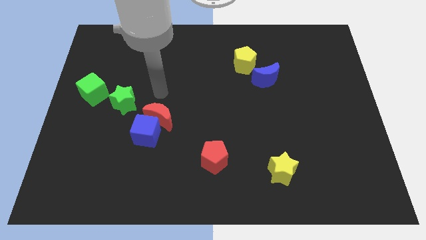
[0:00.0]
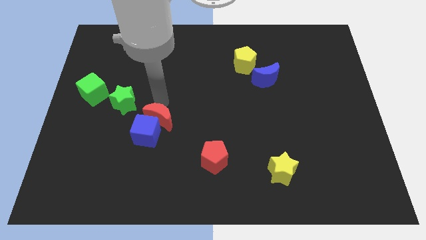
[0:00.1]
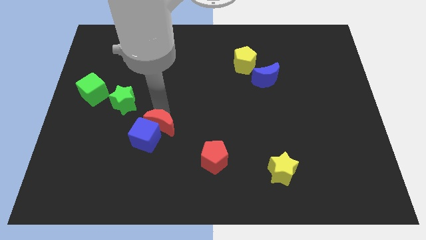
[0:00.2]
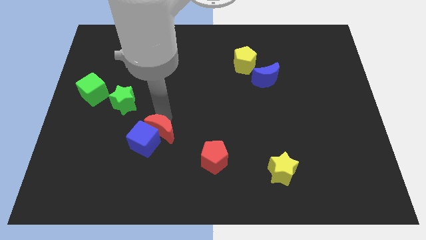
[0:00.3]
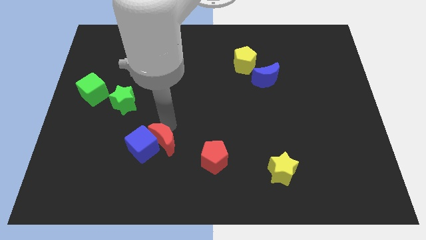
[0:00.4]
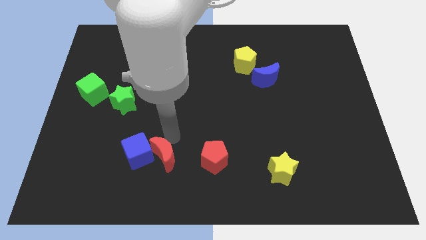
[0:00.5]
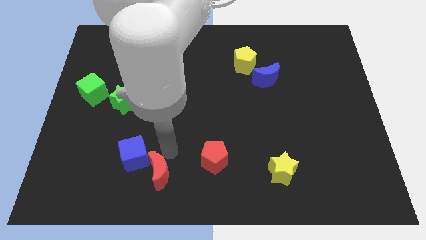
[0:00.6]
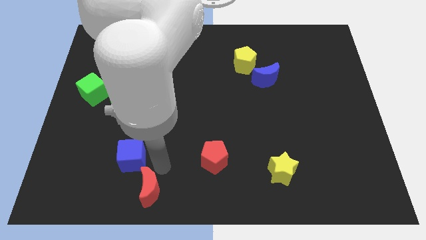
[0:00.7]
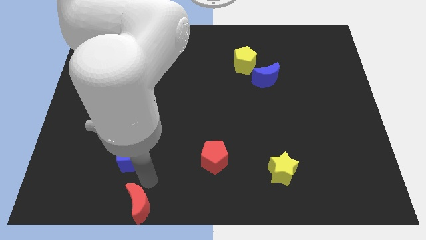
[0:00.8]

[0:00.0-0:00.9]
move the blue cube away from the red moon

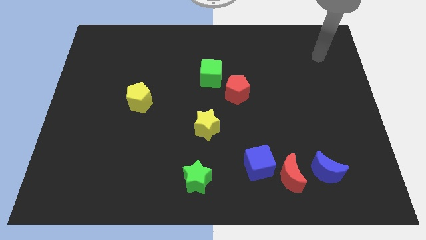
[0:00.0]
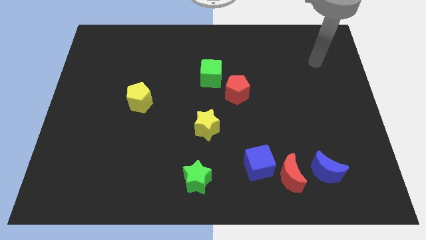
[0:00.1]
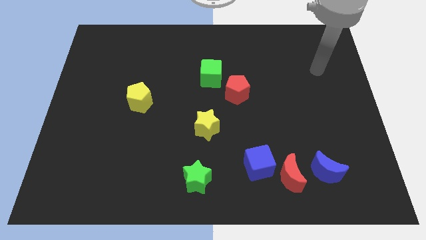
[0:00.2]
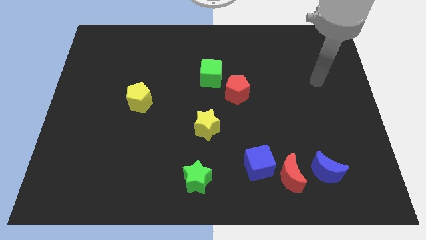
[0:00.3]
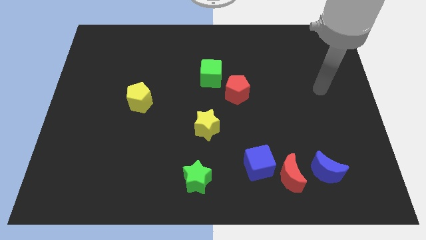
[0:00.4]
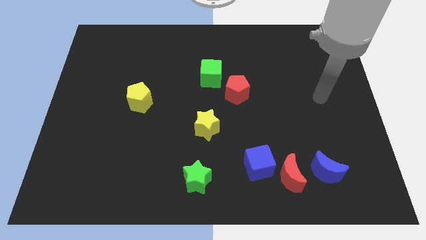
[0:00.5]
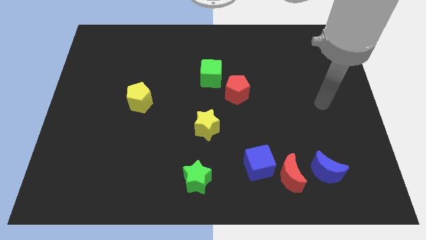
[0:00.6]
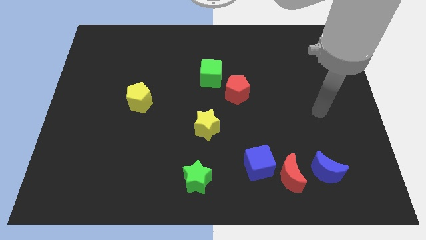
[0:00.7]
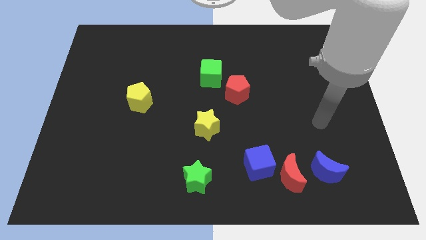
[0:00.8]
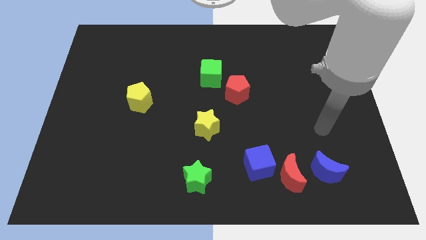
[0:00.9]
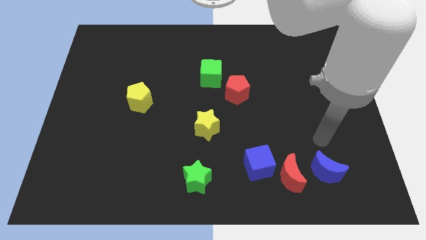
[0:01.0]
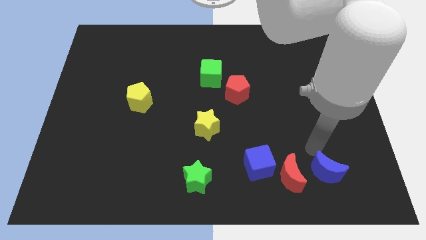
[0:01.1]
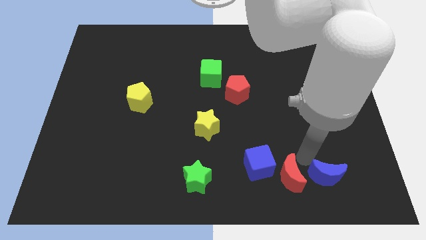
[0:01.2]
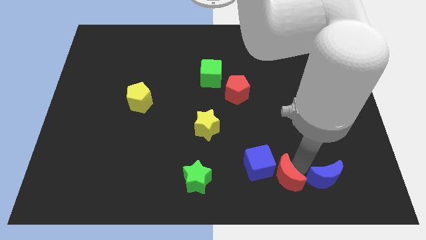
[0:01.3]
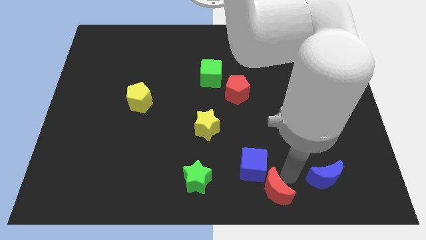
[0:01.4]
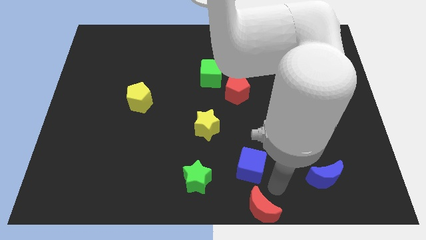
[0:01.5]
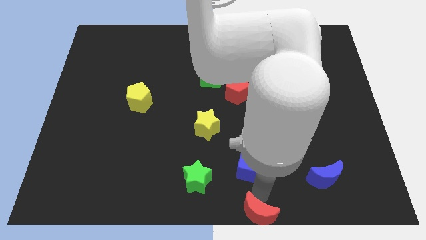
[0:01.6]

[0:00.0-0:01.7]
pull the blue cube apart from the red moon

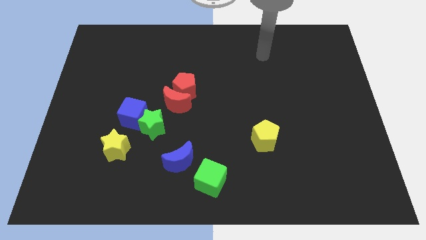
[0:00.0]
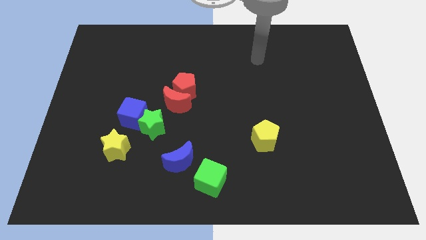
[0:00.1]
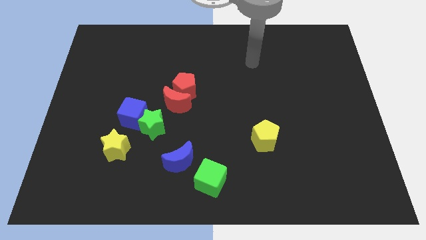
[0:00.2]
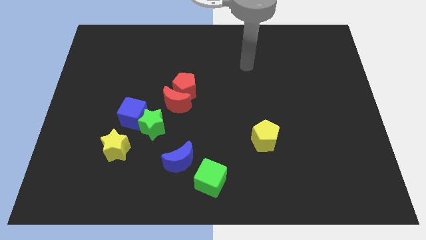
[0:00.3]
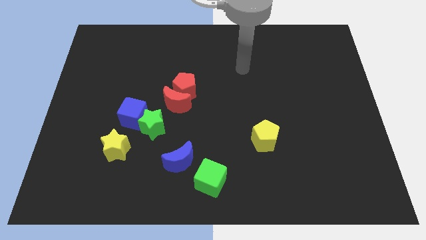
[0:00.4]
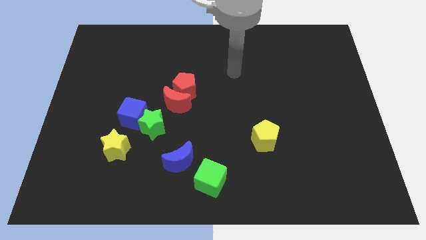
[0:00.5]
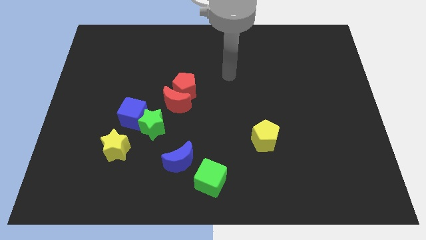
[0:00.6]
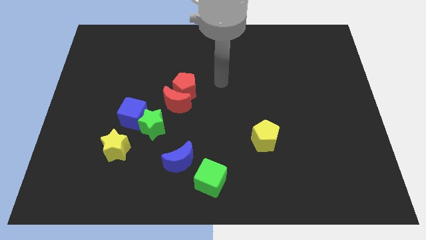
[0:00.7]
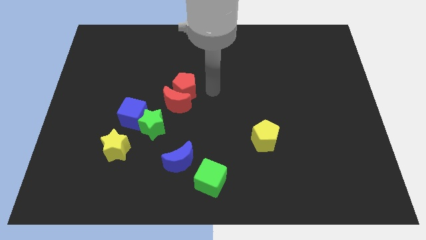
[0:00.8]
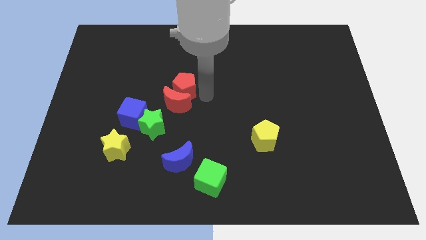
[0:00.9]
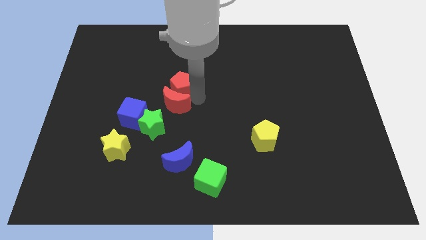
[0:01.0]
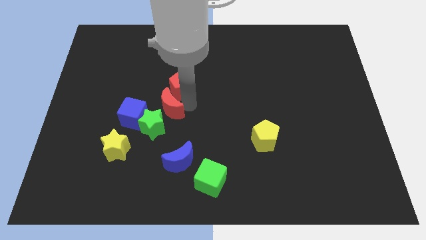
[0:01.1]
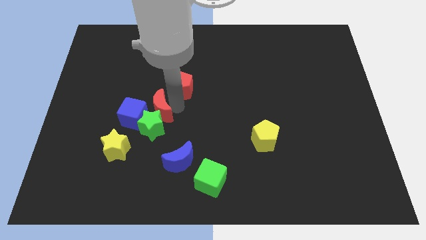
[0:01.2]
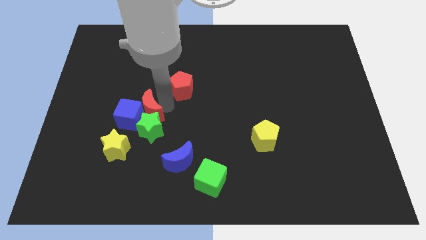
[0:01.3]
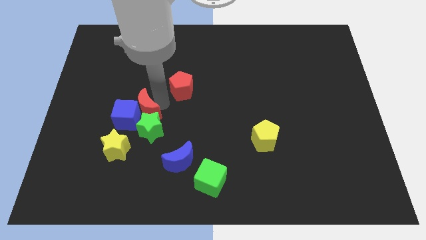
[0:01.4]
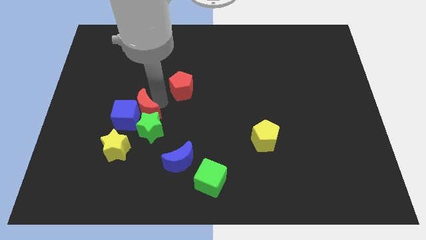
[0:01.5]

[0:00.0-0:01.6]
move the red pentagon away from the red moon

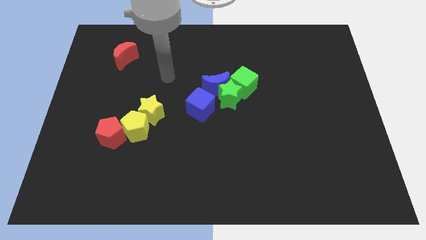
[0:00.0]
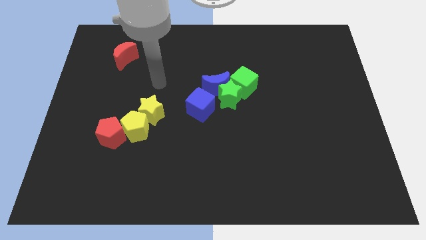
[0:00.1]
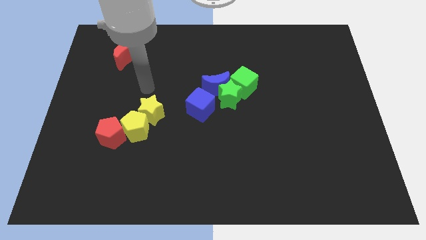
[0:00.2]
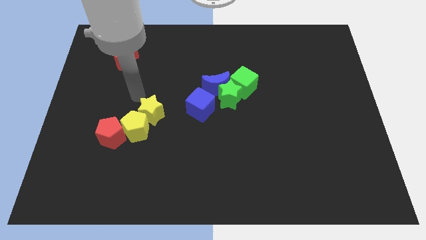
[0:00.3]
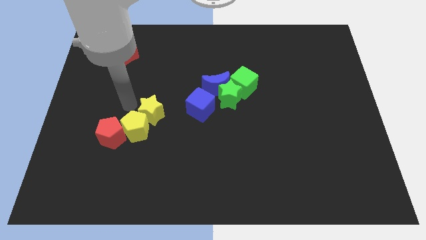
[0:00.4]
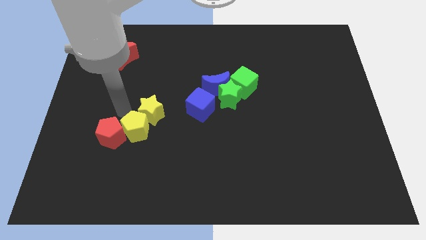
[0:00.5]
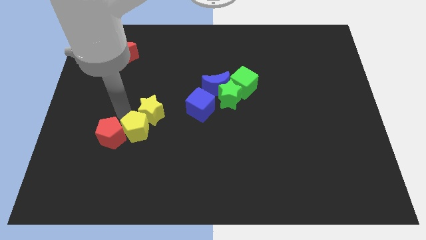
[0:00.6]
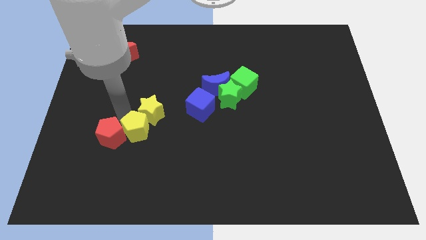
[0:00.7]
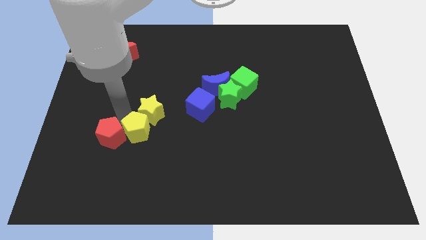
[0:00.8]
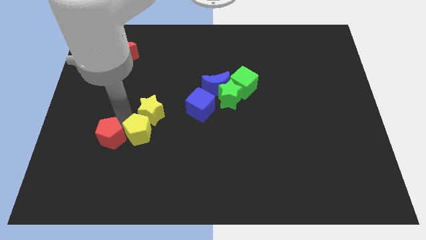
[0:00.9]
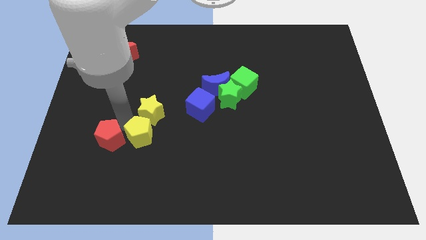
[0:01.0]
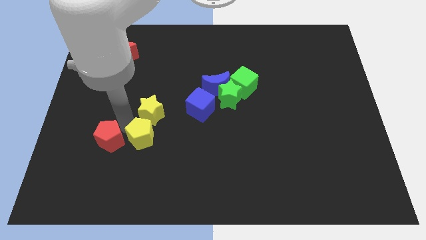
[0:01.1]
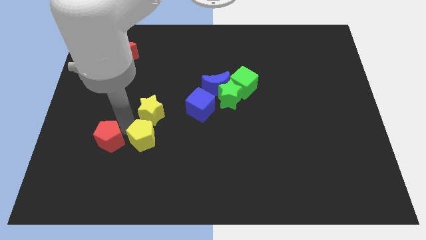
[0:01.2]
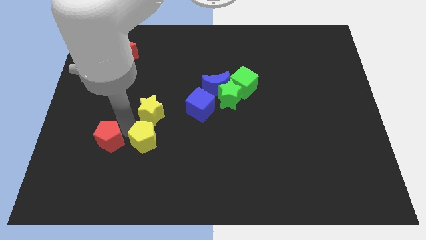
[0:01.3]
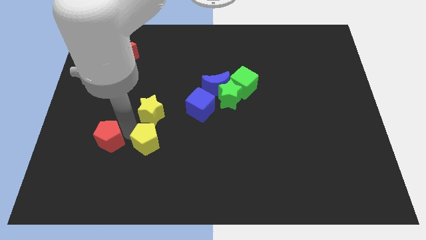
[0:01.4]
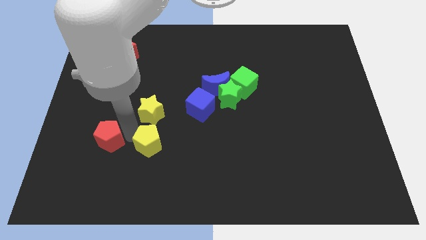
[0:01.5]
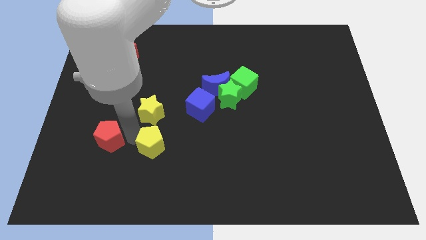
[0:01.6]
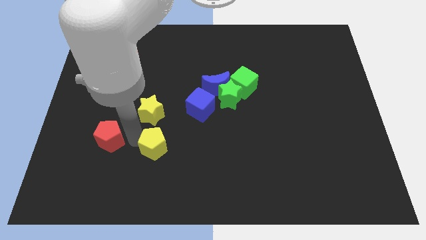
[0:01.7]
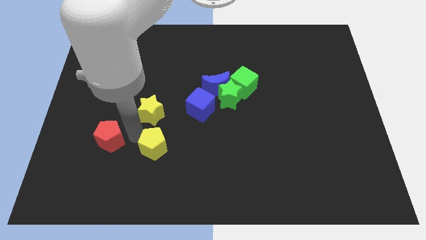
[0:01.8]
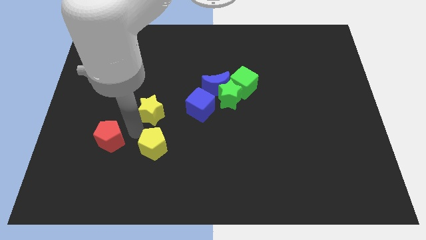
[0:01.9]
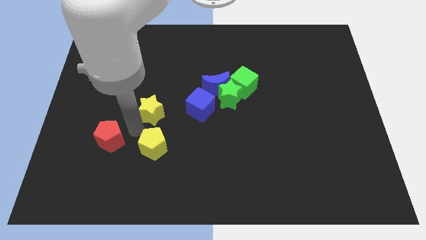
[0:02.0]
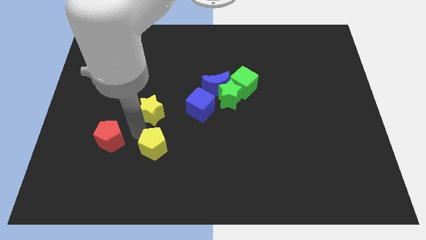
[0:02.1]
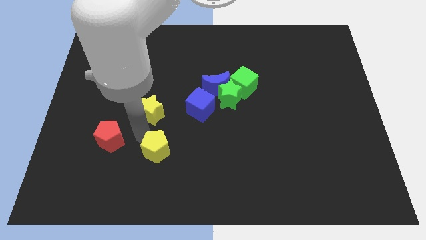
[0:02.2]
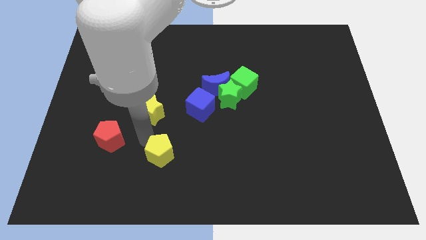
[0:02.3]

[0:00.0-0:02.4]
separate the yellow pentagon from the red pentagon and yellow star

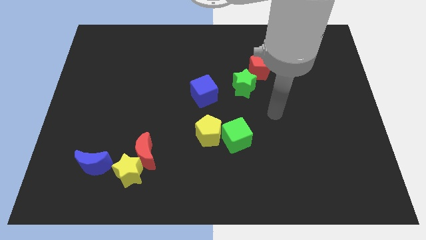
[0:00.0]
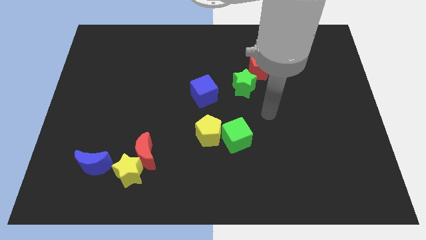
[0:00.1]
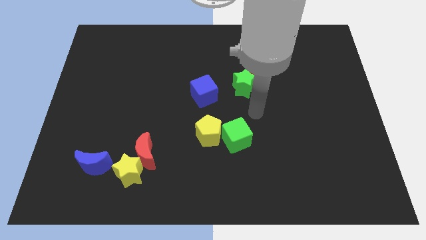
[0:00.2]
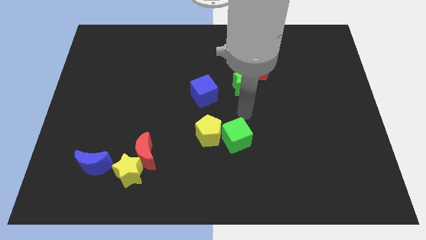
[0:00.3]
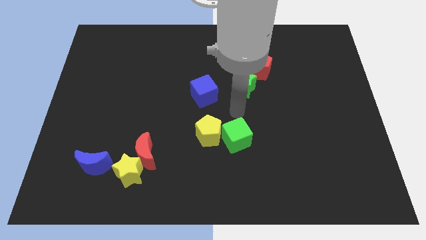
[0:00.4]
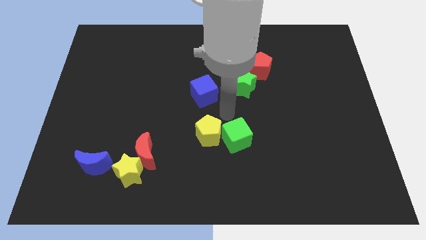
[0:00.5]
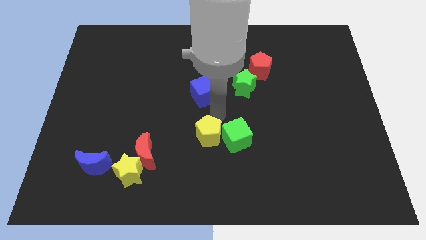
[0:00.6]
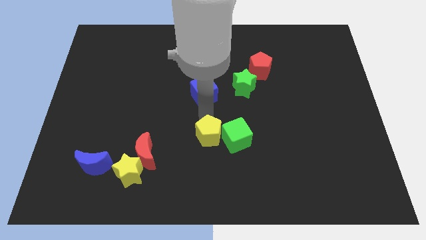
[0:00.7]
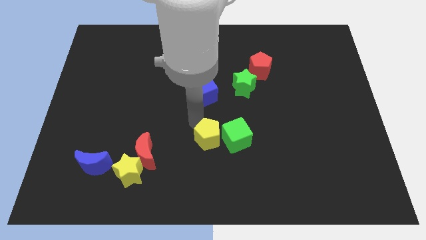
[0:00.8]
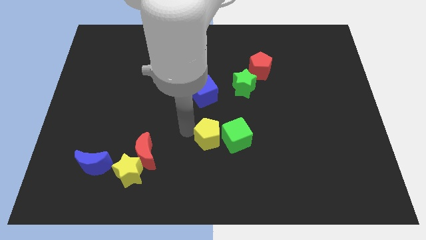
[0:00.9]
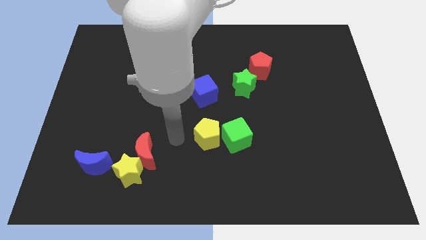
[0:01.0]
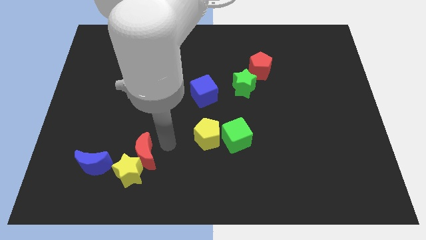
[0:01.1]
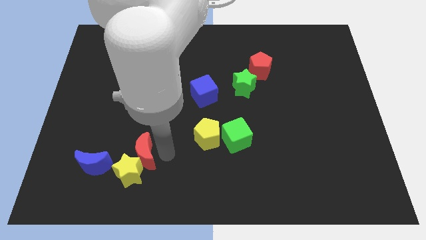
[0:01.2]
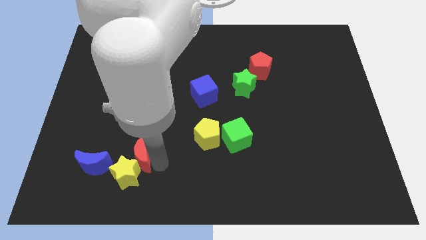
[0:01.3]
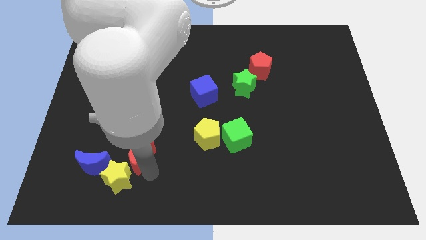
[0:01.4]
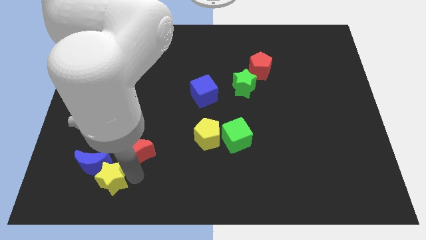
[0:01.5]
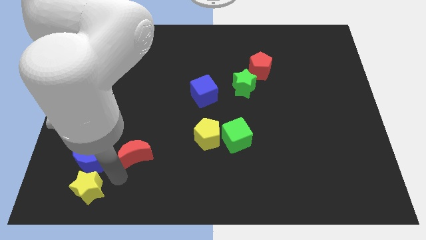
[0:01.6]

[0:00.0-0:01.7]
move the red moon away from the yellow star

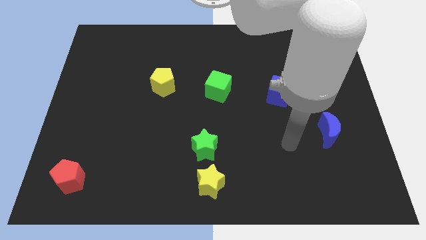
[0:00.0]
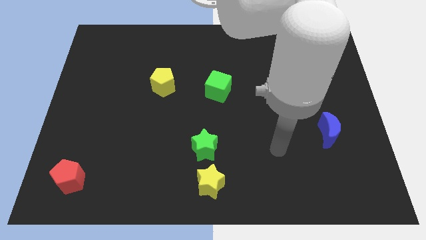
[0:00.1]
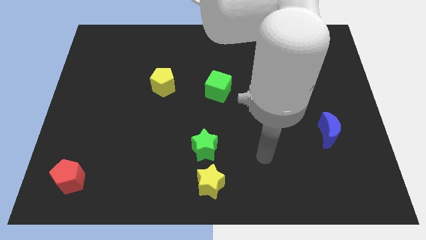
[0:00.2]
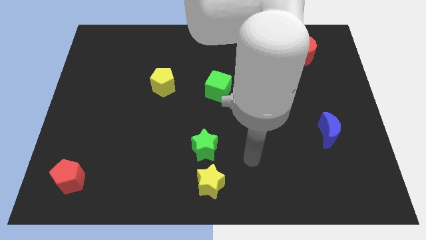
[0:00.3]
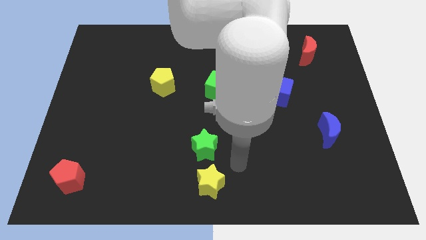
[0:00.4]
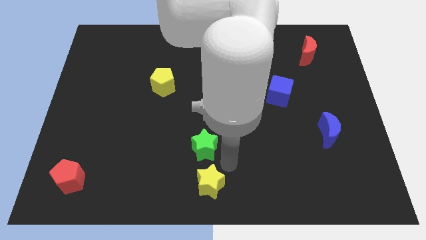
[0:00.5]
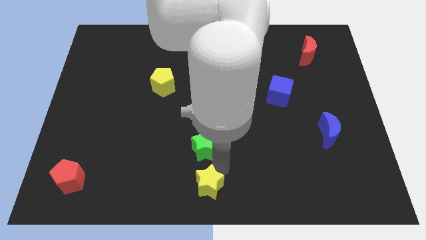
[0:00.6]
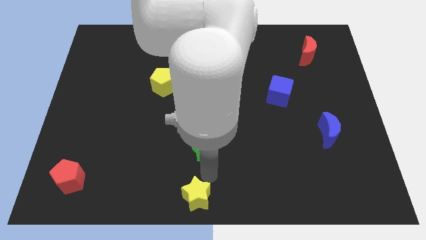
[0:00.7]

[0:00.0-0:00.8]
move the green star away from the yellow star
